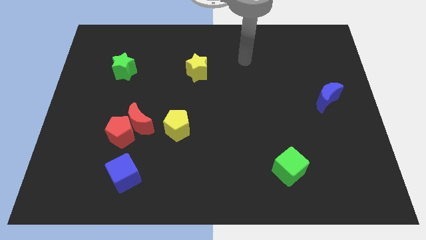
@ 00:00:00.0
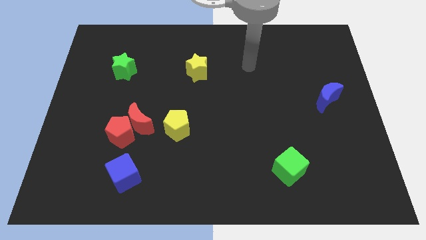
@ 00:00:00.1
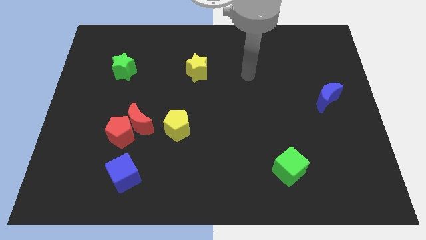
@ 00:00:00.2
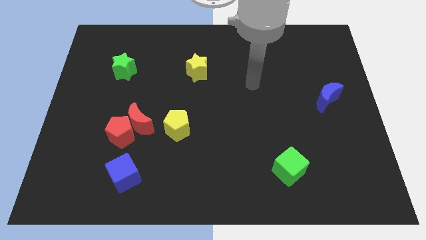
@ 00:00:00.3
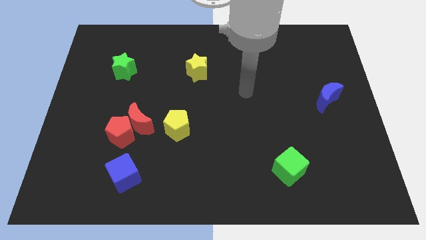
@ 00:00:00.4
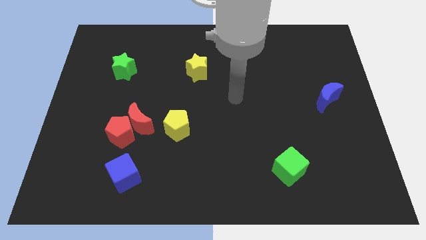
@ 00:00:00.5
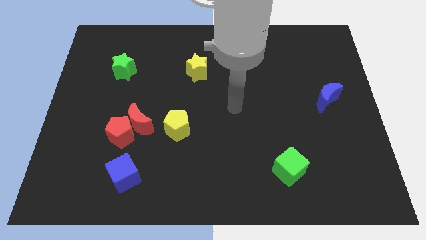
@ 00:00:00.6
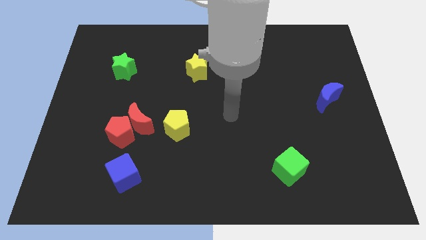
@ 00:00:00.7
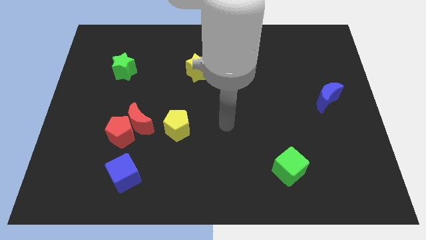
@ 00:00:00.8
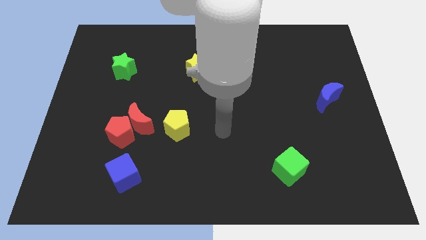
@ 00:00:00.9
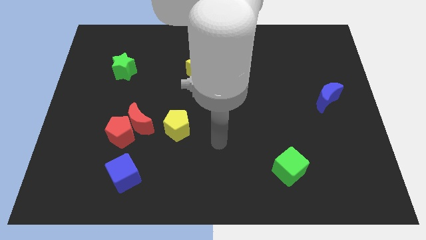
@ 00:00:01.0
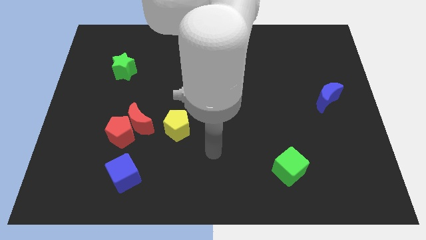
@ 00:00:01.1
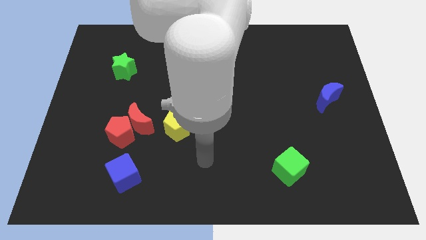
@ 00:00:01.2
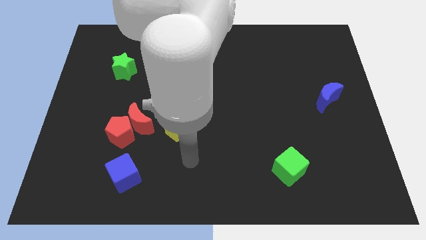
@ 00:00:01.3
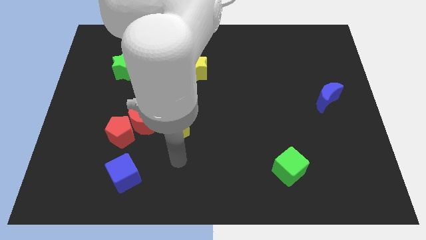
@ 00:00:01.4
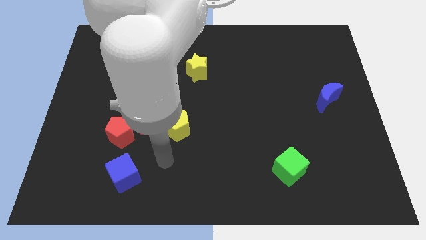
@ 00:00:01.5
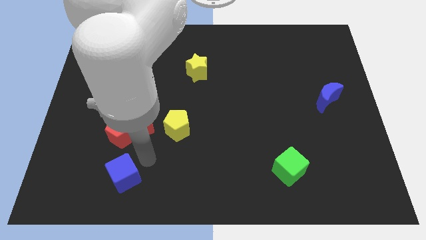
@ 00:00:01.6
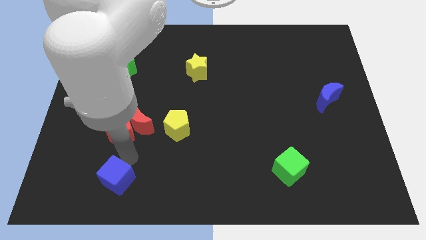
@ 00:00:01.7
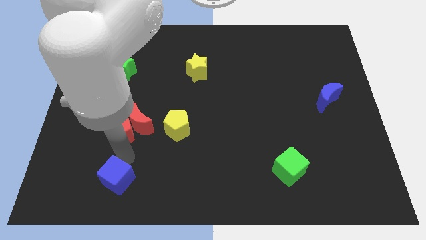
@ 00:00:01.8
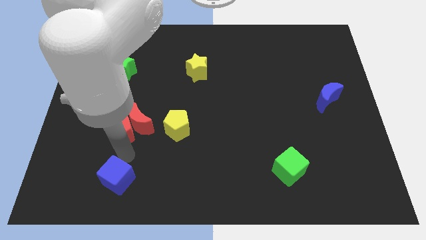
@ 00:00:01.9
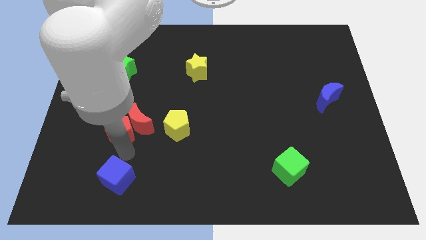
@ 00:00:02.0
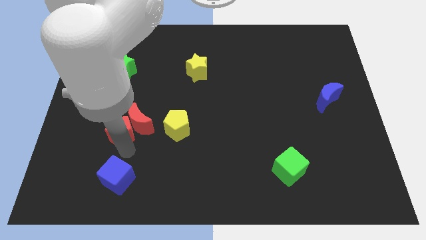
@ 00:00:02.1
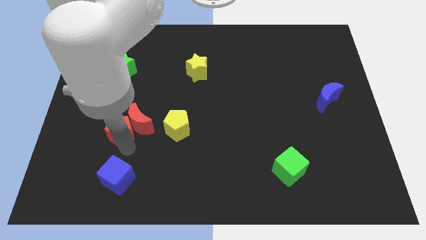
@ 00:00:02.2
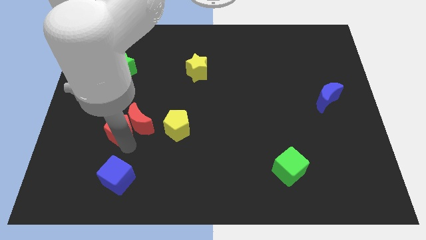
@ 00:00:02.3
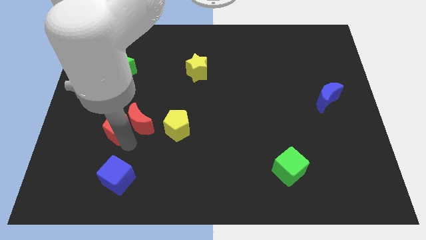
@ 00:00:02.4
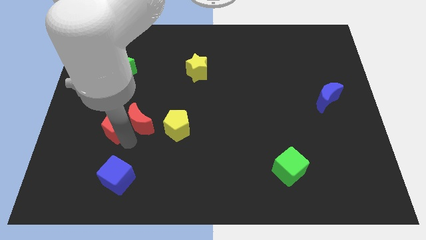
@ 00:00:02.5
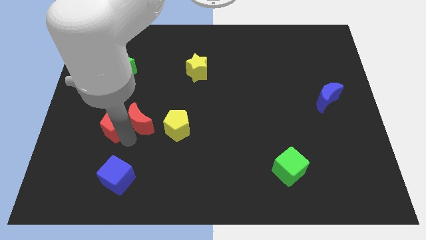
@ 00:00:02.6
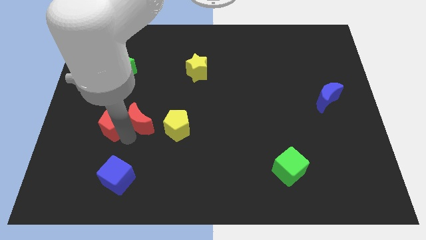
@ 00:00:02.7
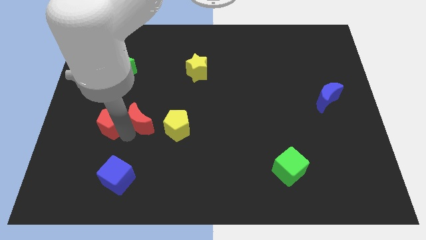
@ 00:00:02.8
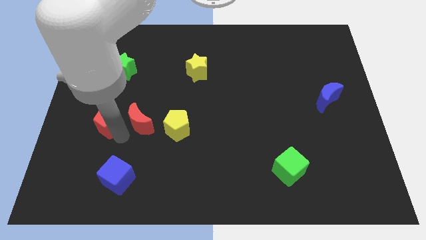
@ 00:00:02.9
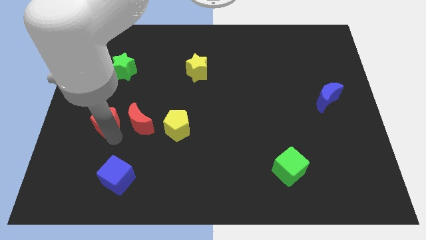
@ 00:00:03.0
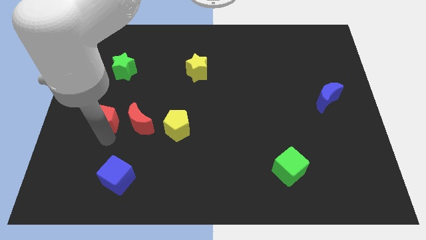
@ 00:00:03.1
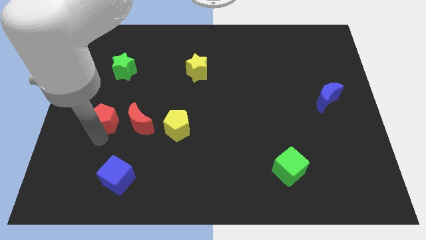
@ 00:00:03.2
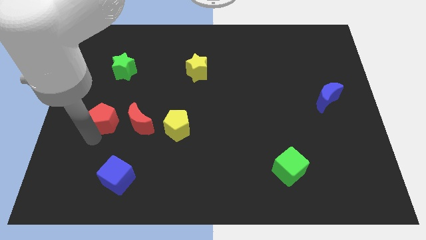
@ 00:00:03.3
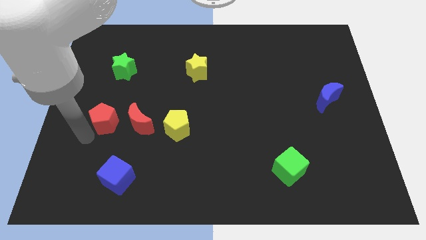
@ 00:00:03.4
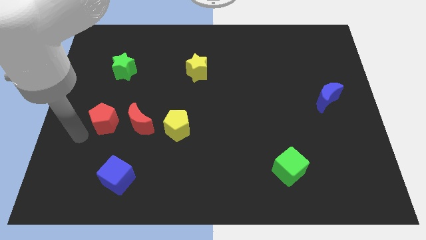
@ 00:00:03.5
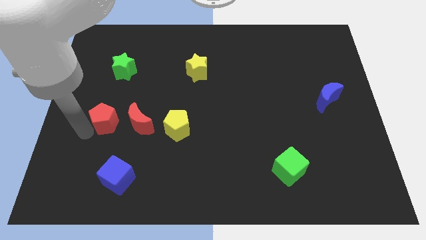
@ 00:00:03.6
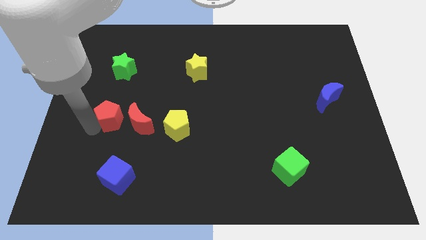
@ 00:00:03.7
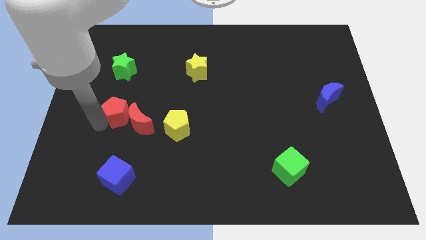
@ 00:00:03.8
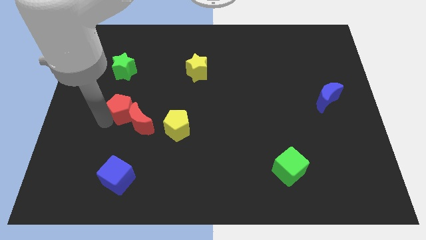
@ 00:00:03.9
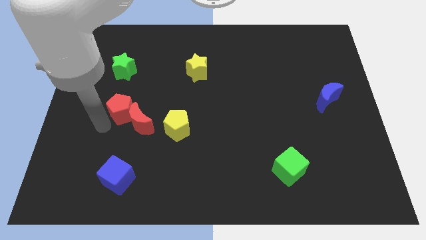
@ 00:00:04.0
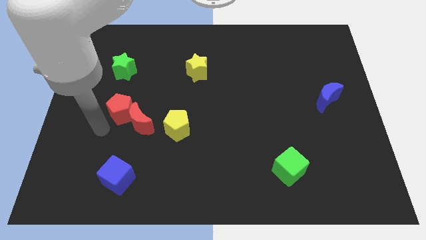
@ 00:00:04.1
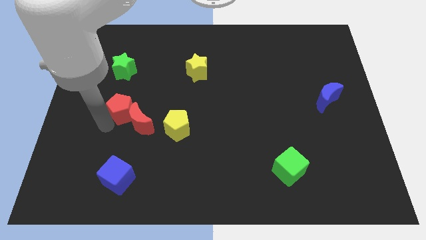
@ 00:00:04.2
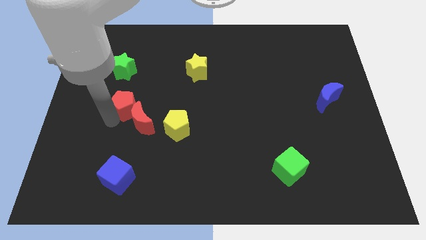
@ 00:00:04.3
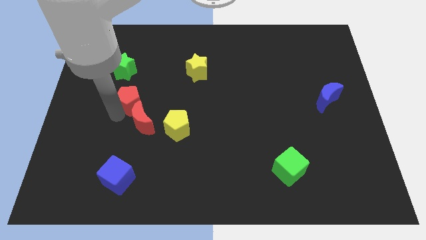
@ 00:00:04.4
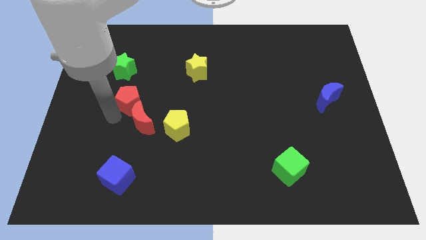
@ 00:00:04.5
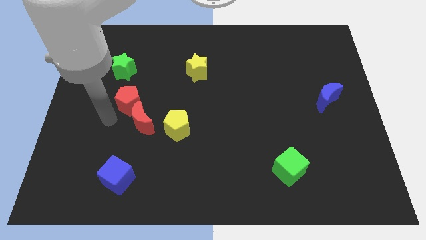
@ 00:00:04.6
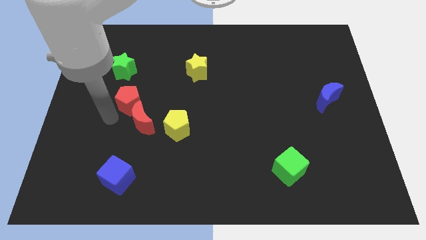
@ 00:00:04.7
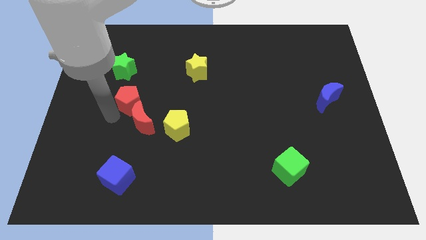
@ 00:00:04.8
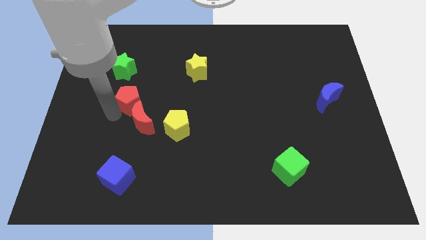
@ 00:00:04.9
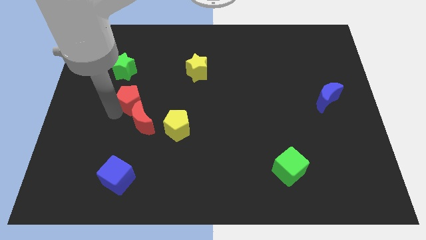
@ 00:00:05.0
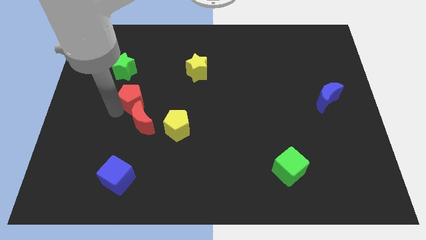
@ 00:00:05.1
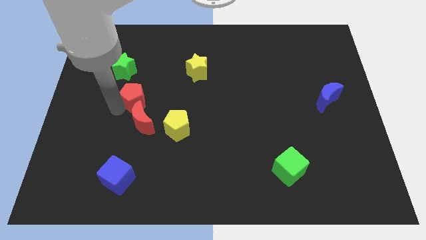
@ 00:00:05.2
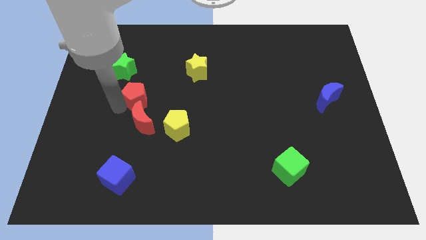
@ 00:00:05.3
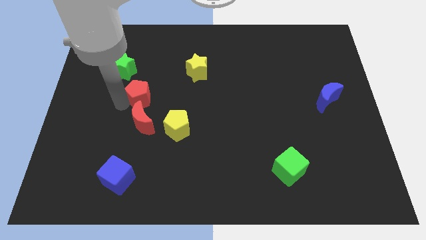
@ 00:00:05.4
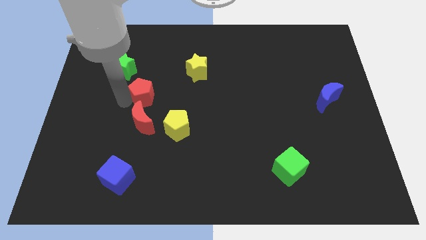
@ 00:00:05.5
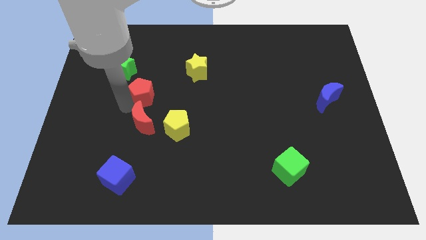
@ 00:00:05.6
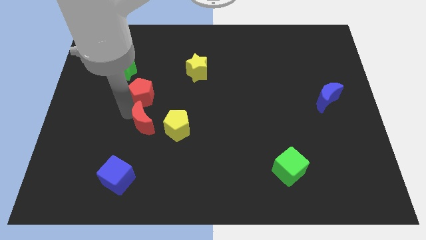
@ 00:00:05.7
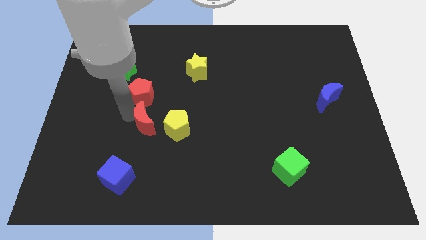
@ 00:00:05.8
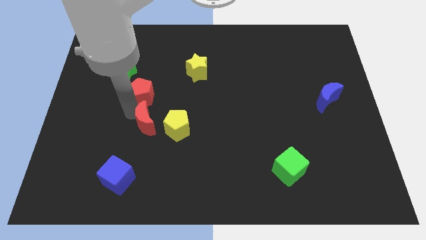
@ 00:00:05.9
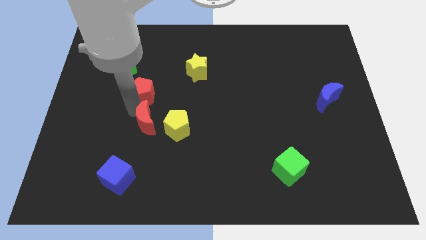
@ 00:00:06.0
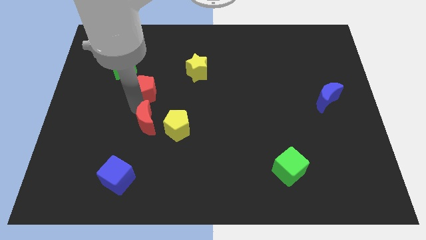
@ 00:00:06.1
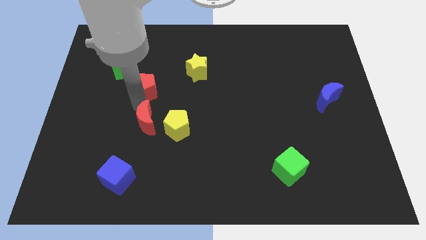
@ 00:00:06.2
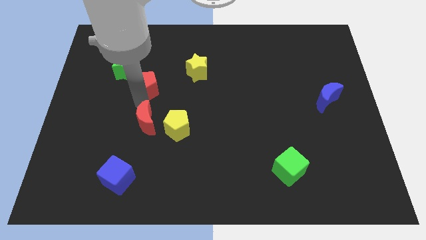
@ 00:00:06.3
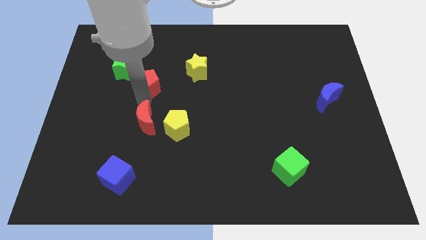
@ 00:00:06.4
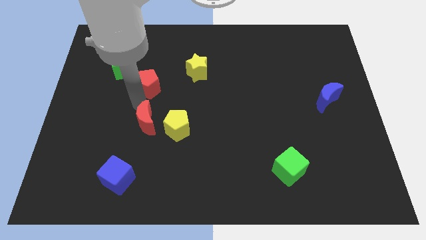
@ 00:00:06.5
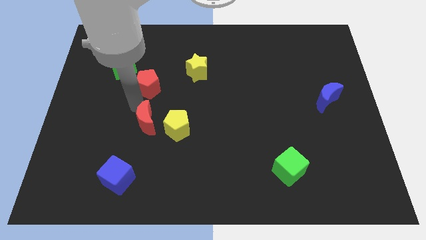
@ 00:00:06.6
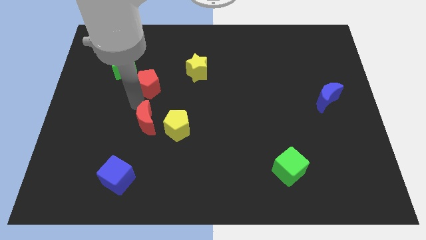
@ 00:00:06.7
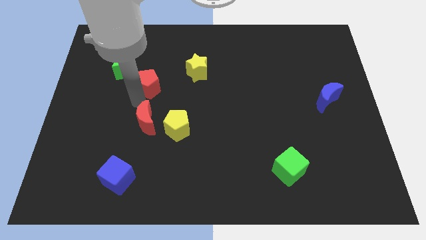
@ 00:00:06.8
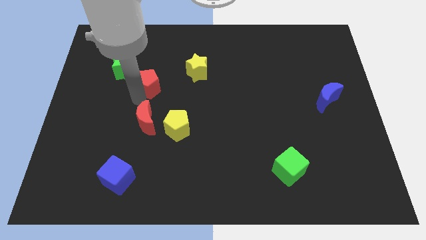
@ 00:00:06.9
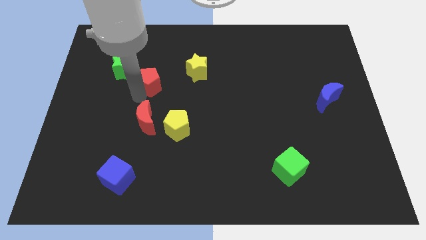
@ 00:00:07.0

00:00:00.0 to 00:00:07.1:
put the red pentagon to the left of the yellow star
